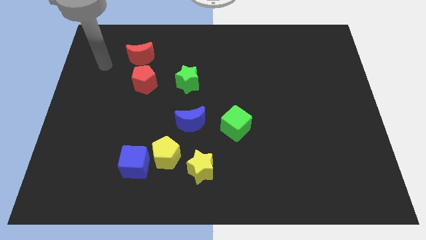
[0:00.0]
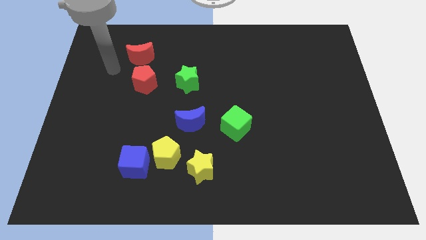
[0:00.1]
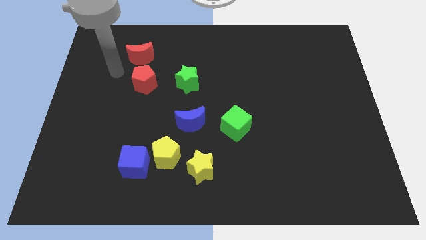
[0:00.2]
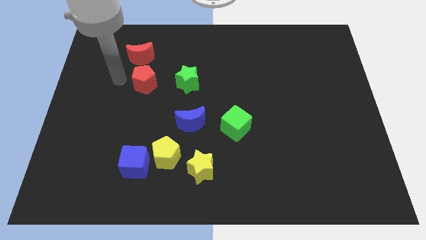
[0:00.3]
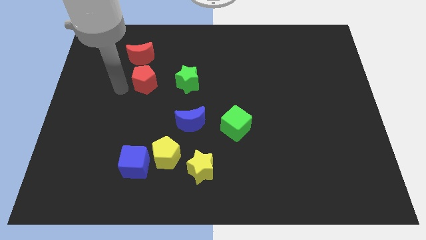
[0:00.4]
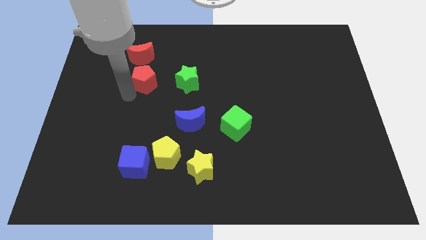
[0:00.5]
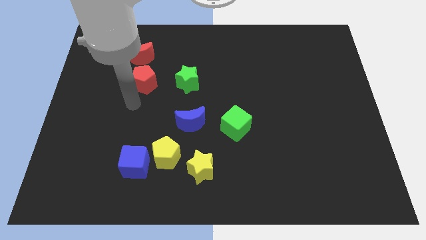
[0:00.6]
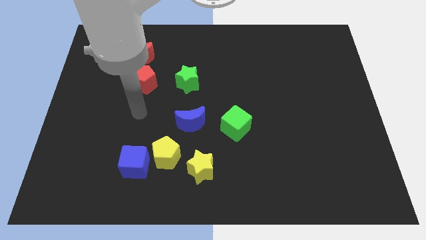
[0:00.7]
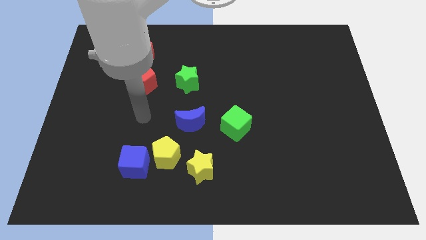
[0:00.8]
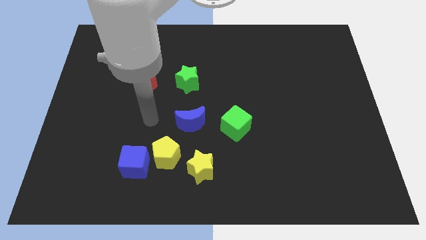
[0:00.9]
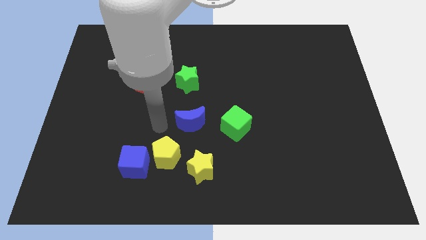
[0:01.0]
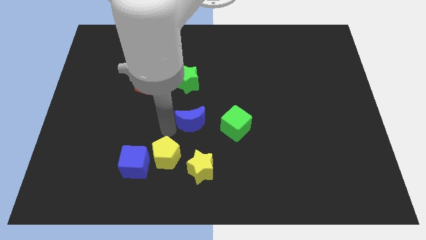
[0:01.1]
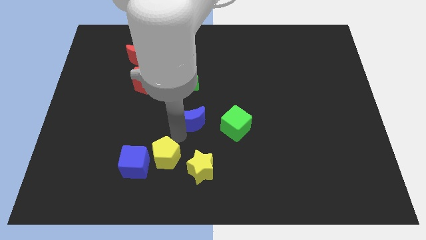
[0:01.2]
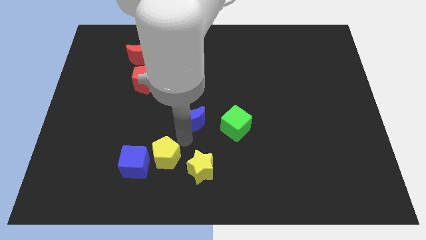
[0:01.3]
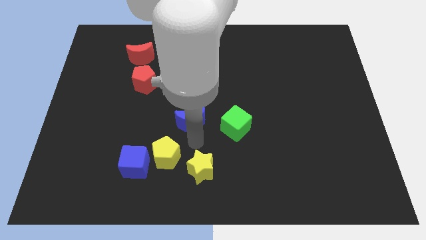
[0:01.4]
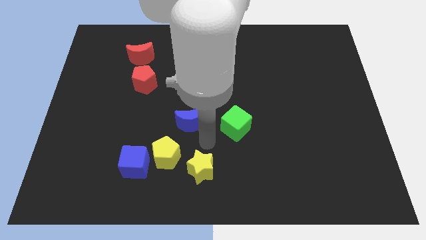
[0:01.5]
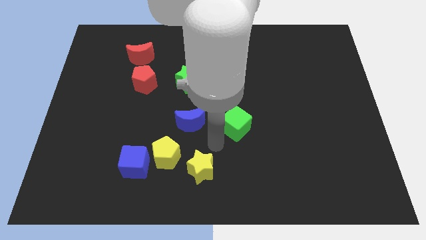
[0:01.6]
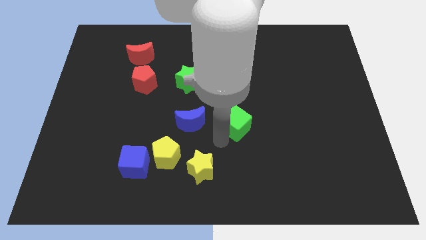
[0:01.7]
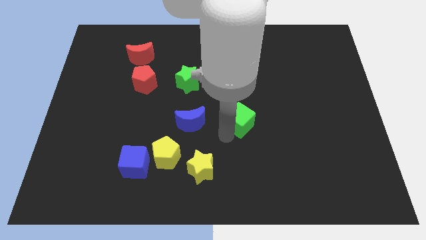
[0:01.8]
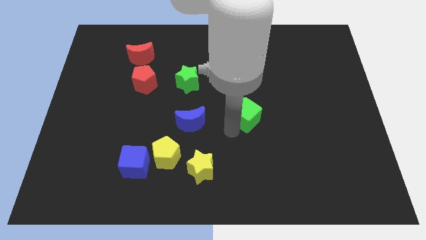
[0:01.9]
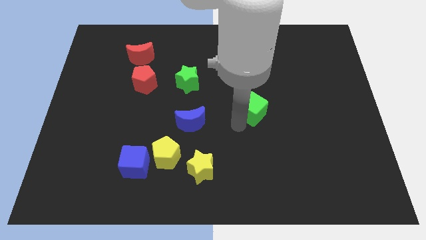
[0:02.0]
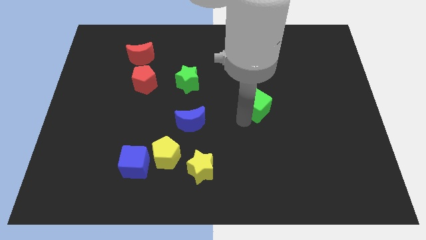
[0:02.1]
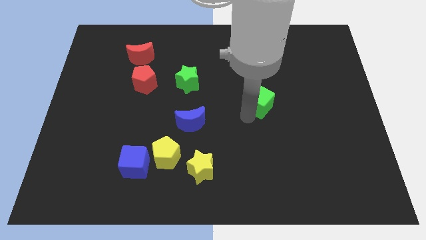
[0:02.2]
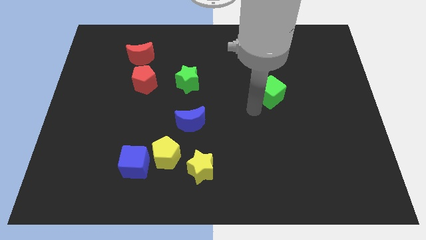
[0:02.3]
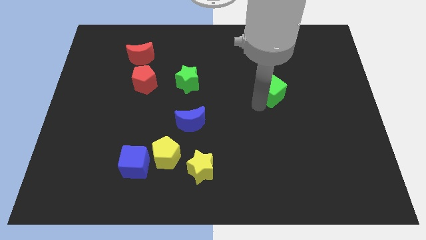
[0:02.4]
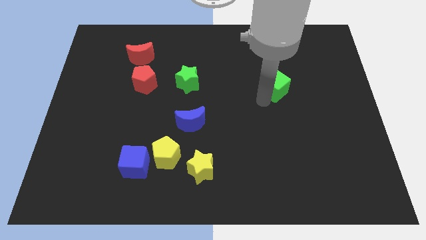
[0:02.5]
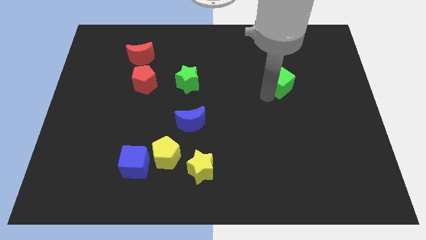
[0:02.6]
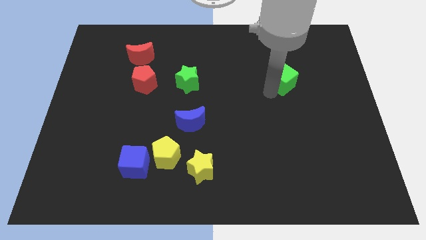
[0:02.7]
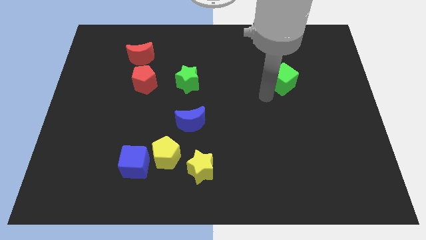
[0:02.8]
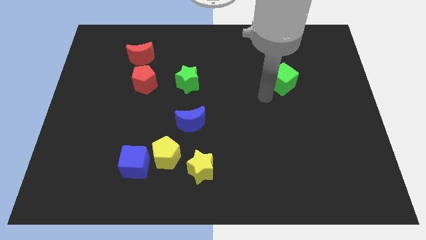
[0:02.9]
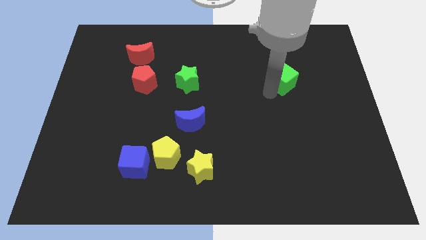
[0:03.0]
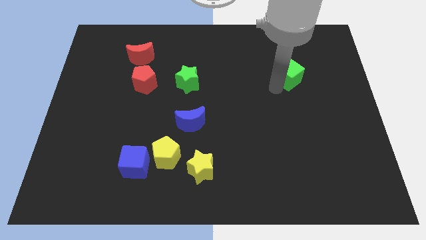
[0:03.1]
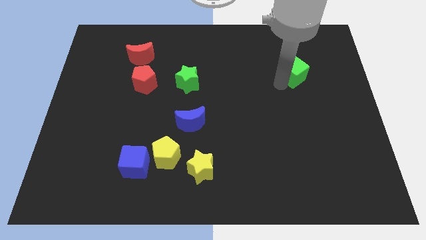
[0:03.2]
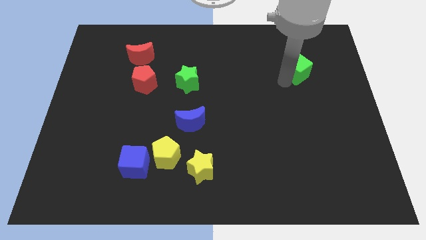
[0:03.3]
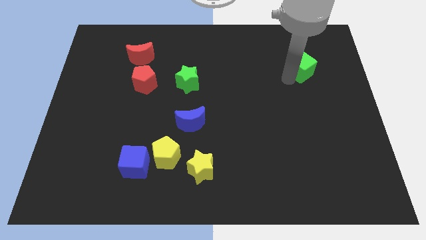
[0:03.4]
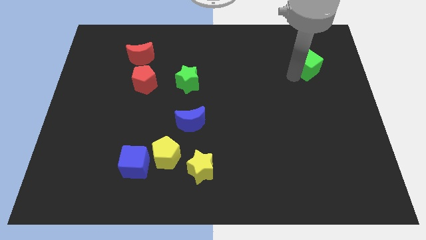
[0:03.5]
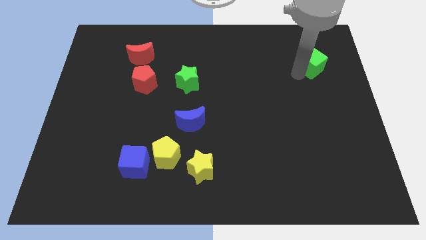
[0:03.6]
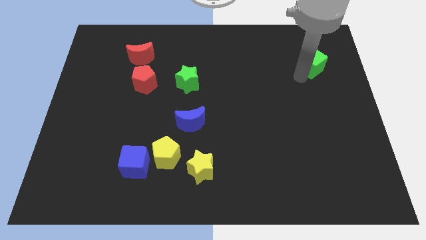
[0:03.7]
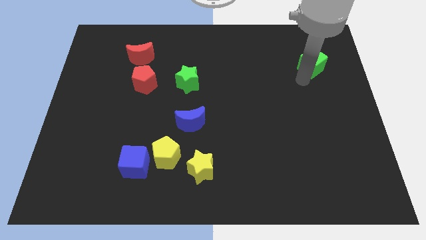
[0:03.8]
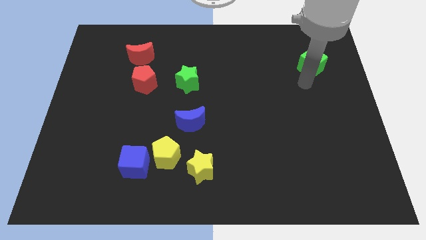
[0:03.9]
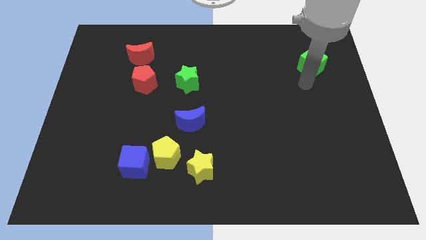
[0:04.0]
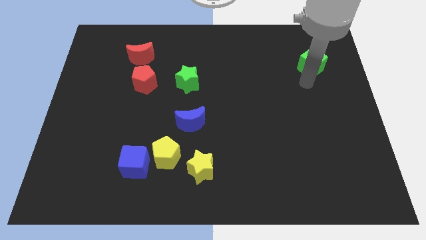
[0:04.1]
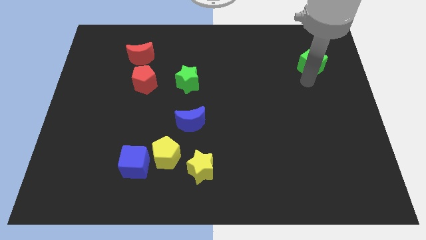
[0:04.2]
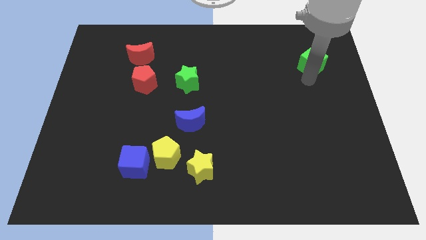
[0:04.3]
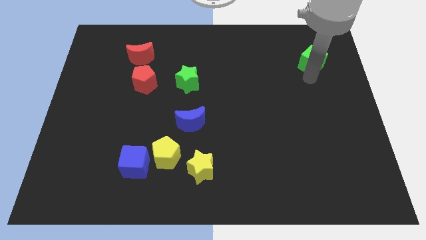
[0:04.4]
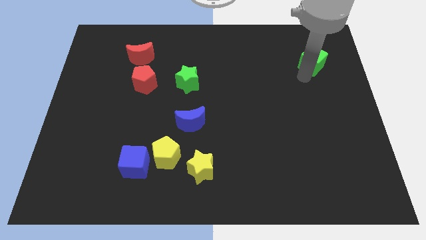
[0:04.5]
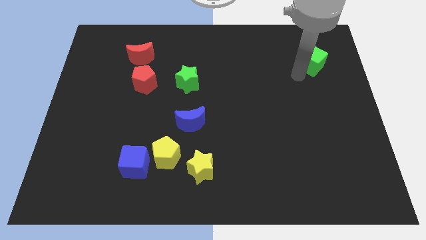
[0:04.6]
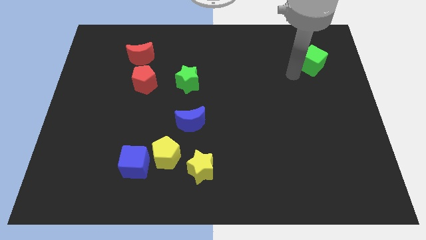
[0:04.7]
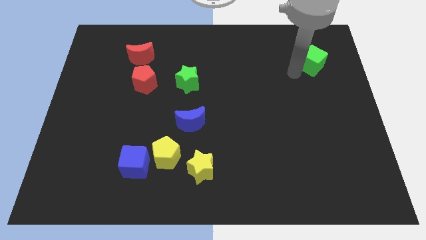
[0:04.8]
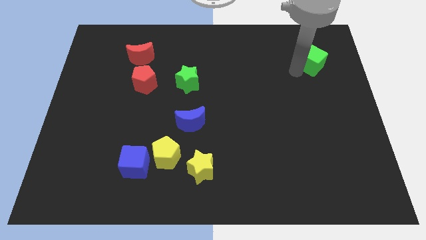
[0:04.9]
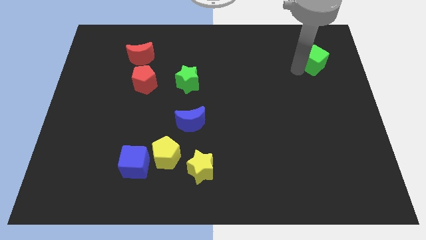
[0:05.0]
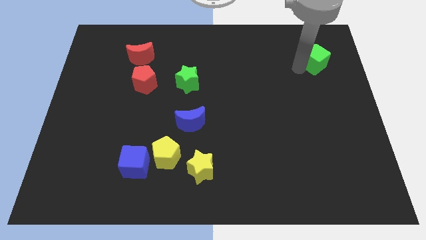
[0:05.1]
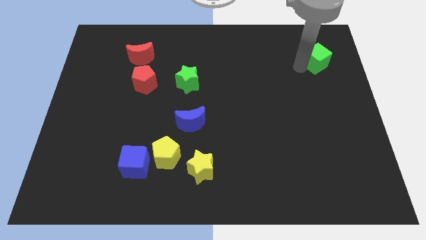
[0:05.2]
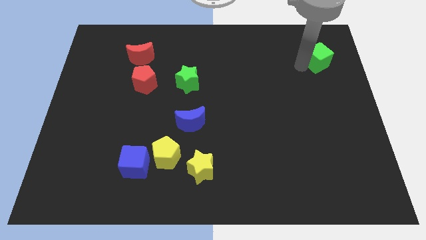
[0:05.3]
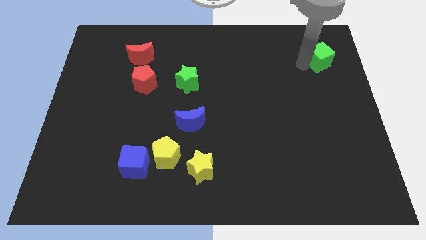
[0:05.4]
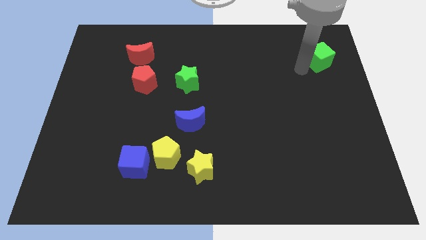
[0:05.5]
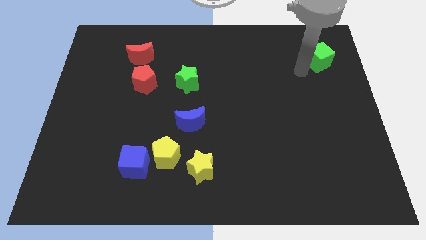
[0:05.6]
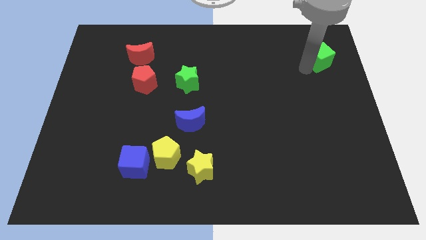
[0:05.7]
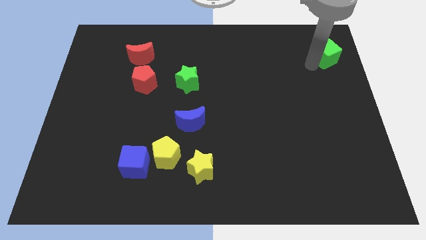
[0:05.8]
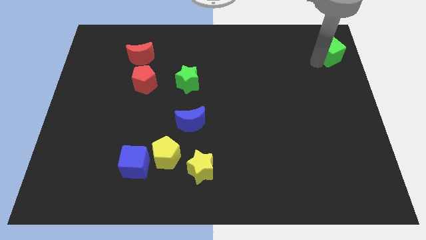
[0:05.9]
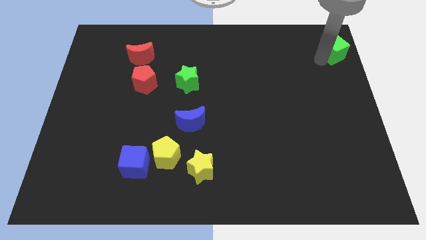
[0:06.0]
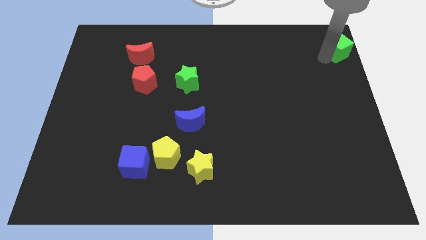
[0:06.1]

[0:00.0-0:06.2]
put the green cube to the top right corner

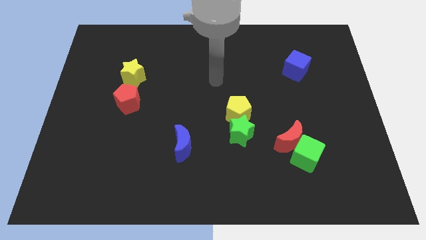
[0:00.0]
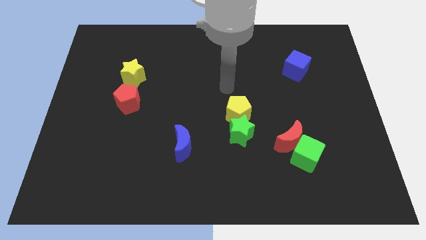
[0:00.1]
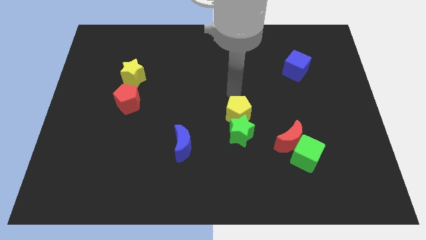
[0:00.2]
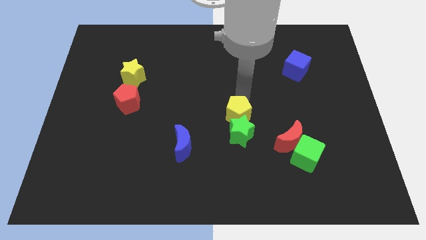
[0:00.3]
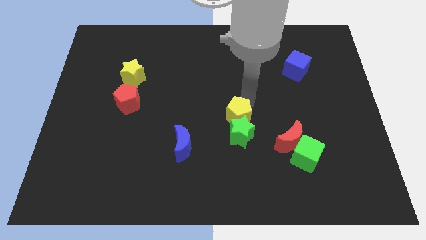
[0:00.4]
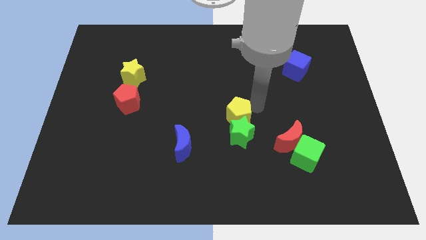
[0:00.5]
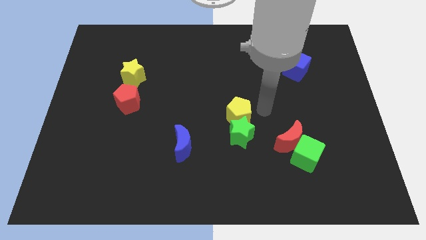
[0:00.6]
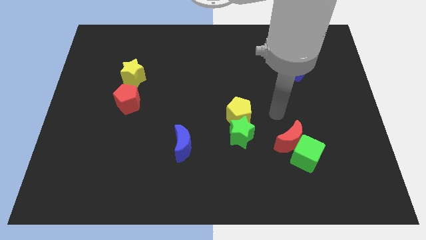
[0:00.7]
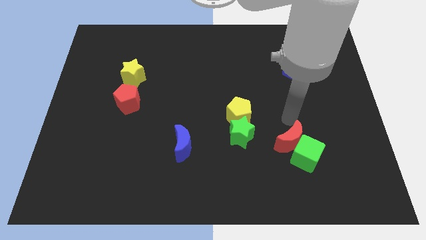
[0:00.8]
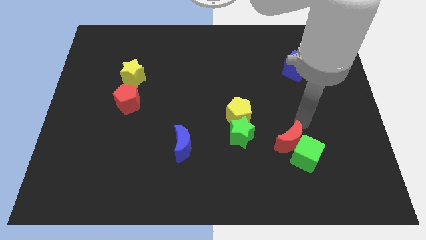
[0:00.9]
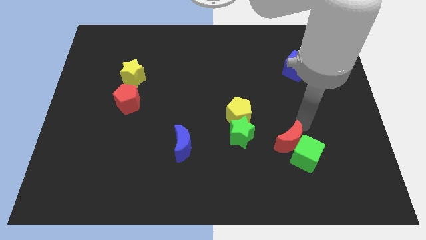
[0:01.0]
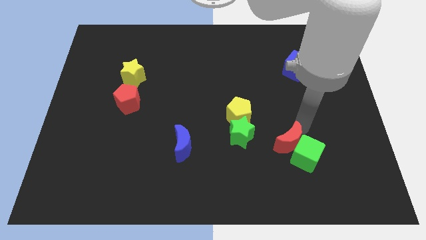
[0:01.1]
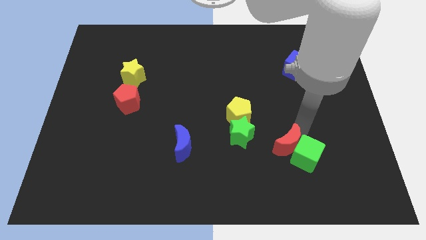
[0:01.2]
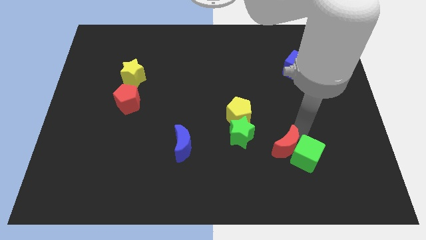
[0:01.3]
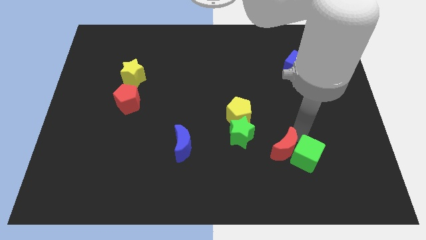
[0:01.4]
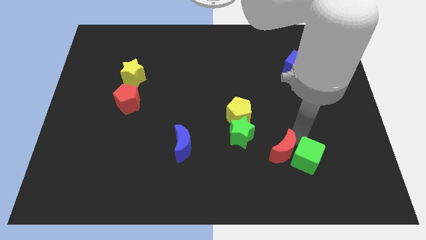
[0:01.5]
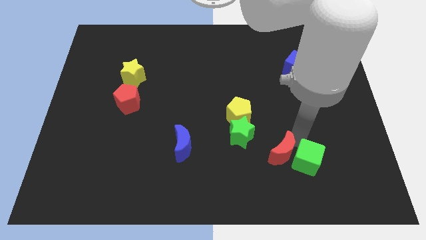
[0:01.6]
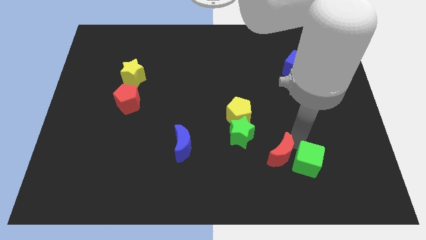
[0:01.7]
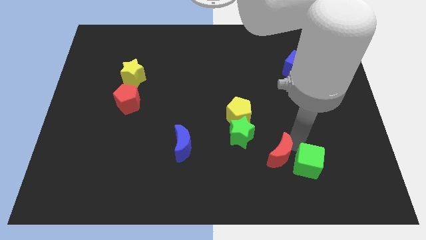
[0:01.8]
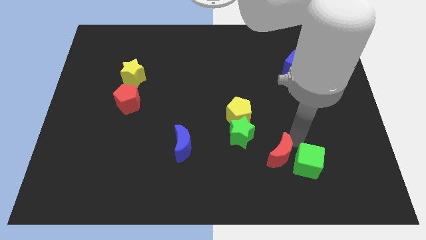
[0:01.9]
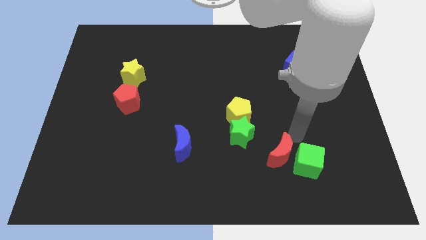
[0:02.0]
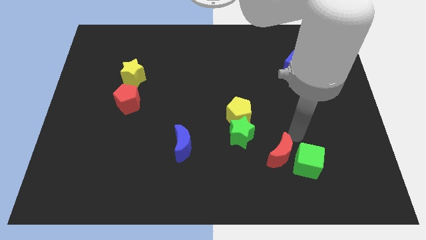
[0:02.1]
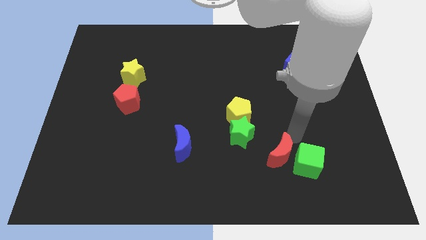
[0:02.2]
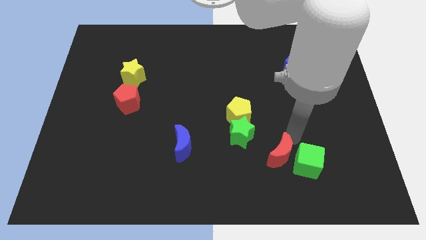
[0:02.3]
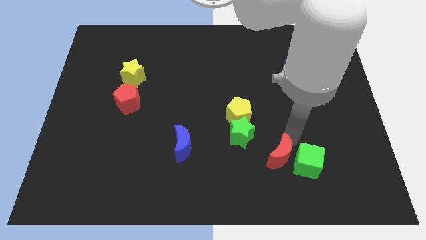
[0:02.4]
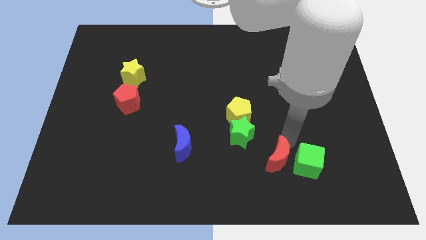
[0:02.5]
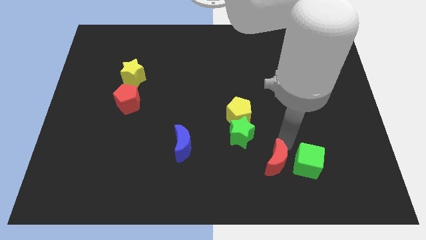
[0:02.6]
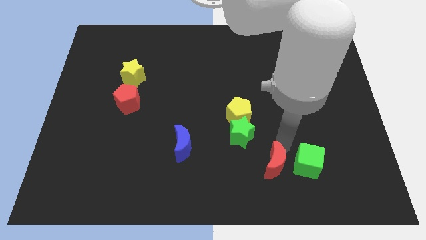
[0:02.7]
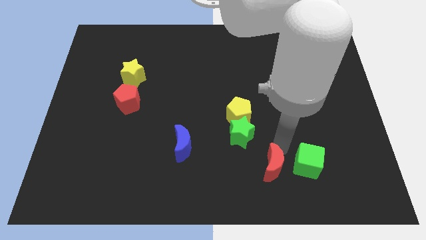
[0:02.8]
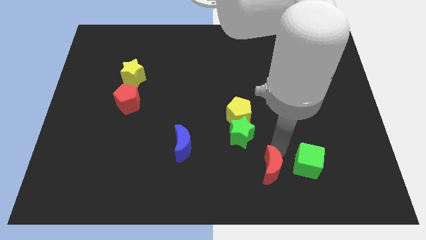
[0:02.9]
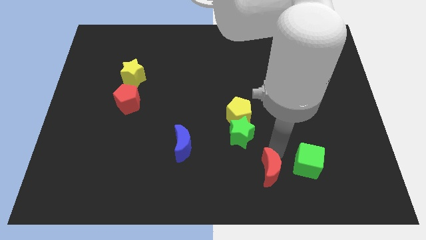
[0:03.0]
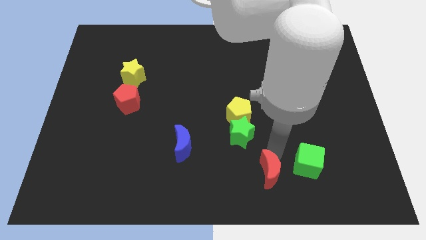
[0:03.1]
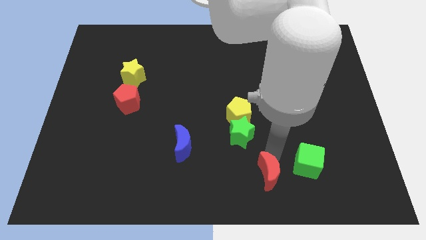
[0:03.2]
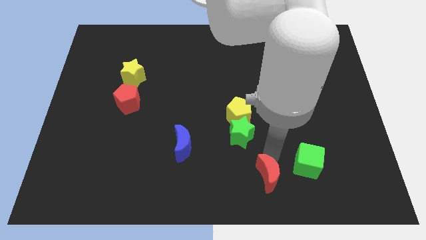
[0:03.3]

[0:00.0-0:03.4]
move the red moon to the bottom
